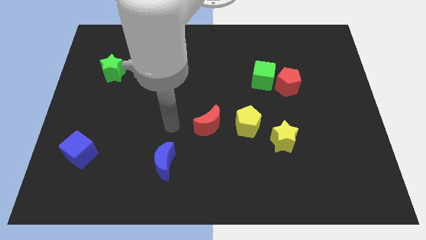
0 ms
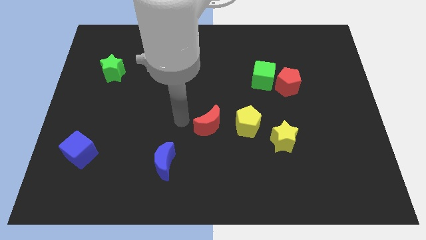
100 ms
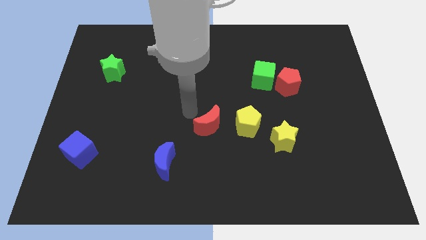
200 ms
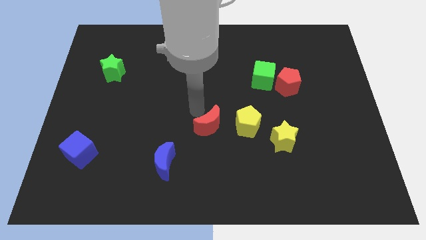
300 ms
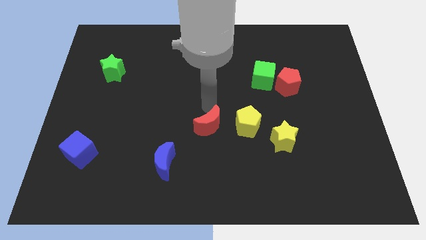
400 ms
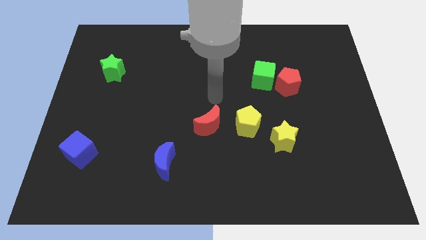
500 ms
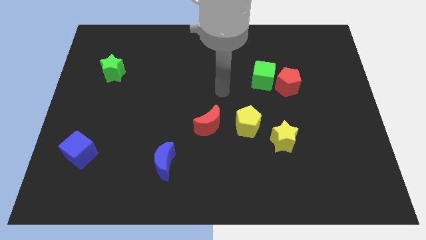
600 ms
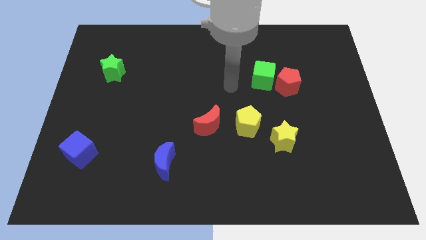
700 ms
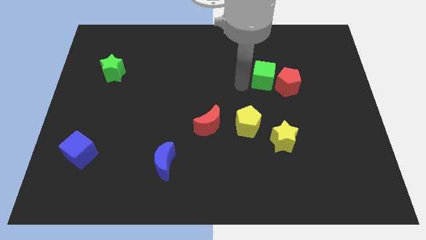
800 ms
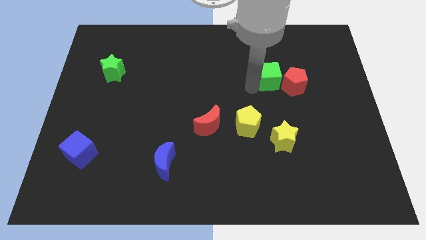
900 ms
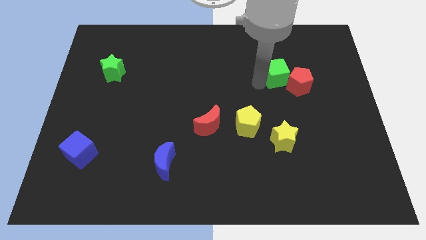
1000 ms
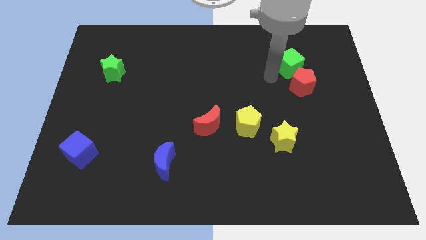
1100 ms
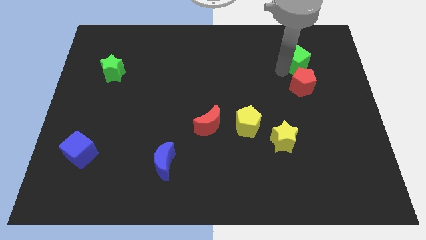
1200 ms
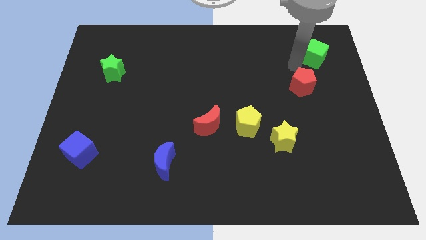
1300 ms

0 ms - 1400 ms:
separate the red pentagon from the green cube

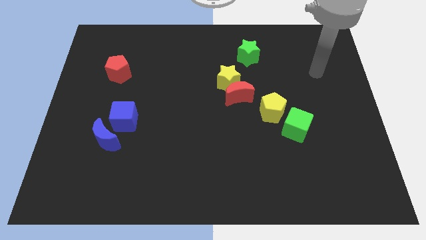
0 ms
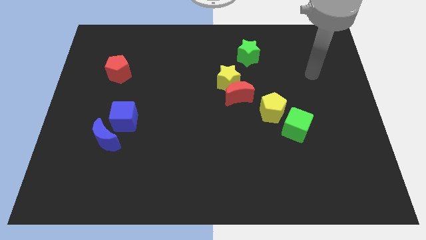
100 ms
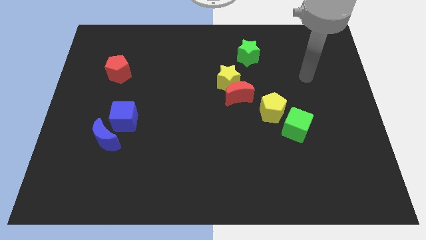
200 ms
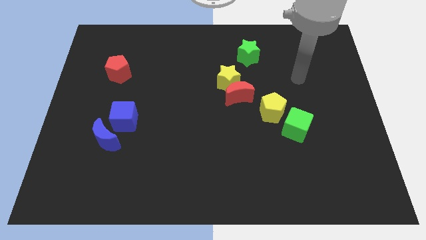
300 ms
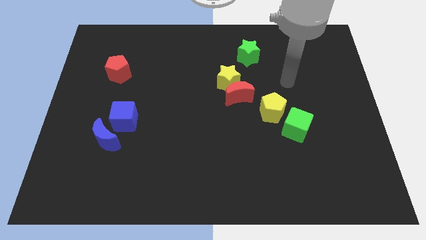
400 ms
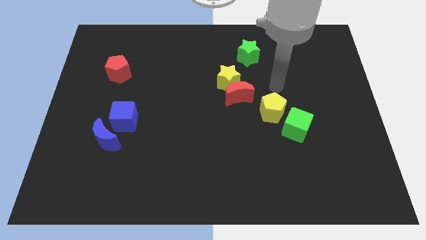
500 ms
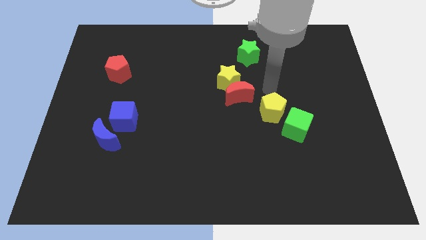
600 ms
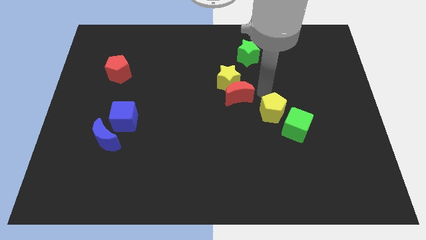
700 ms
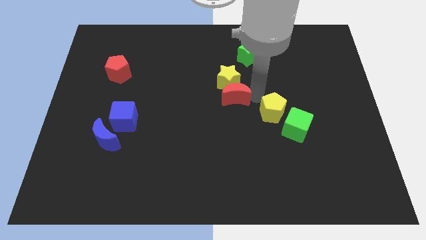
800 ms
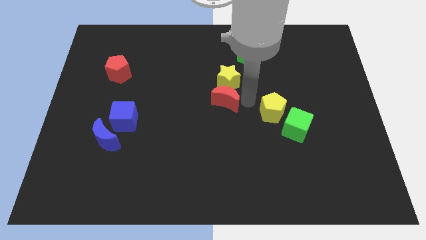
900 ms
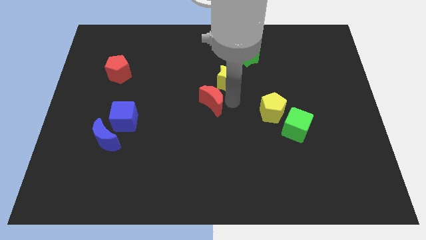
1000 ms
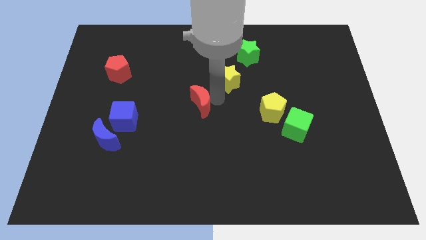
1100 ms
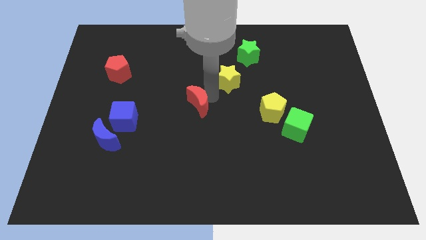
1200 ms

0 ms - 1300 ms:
move the yellow star away from the red moon

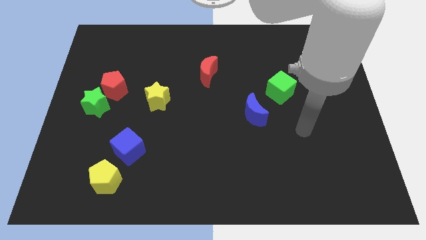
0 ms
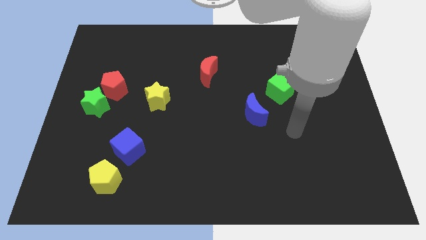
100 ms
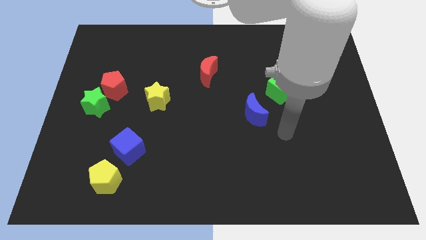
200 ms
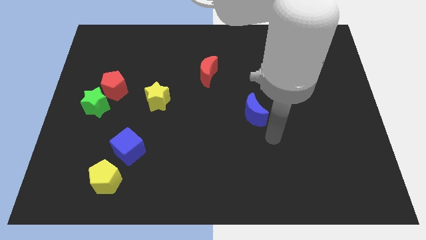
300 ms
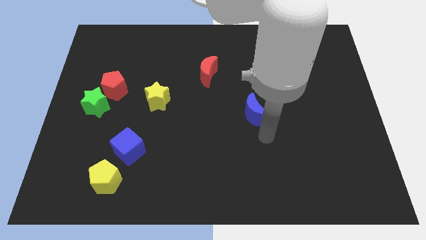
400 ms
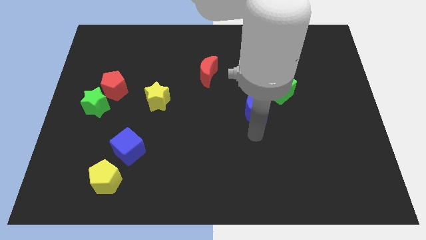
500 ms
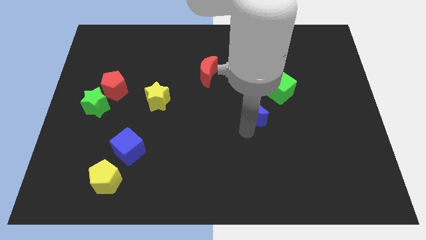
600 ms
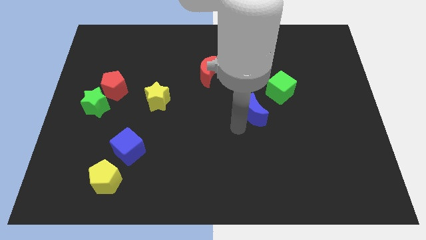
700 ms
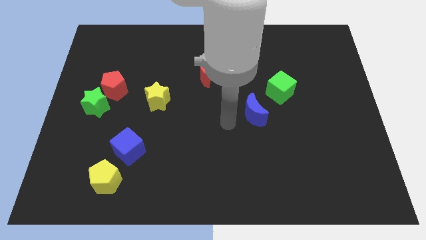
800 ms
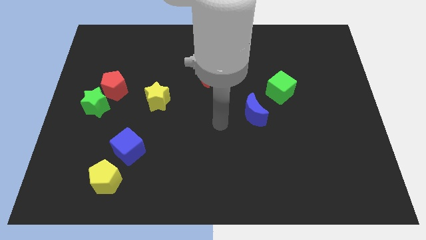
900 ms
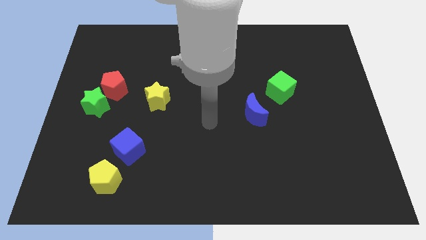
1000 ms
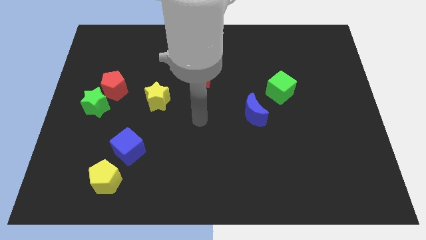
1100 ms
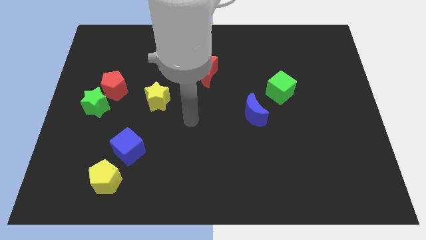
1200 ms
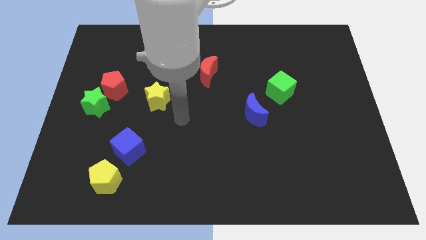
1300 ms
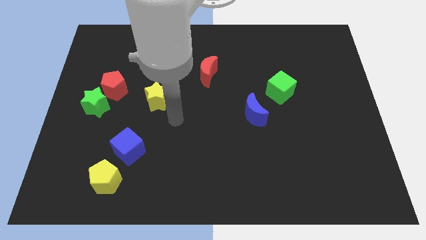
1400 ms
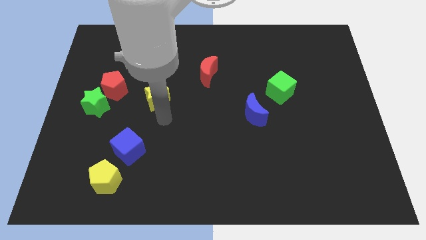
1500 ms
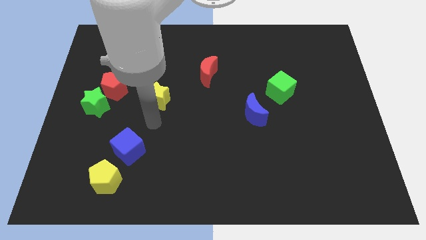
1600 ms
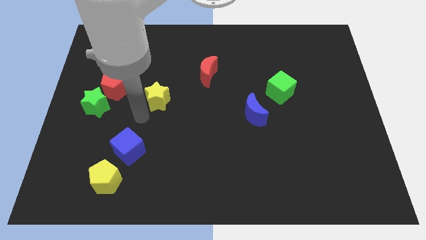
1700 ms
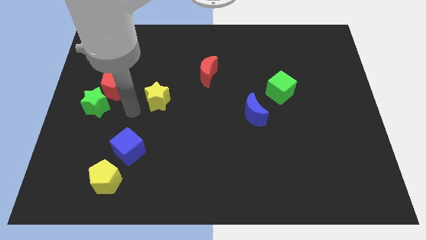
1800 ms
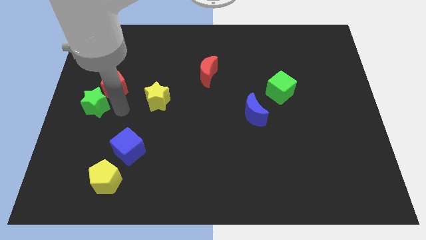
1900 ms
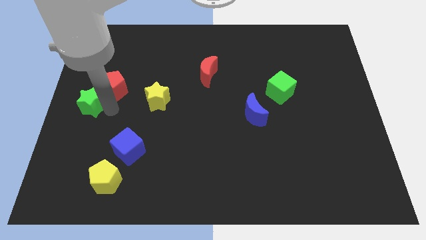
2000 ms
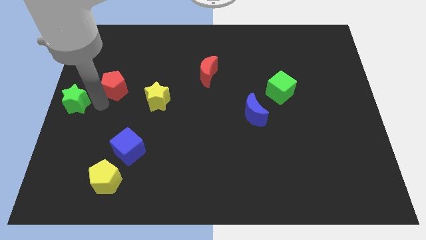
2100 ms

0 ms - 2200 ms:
separate the red pentagon from the green star

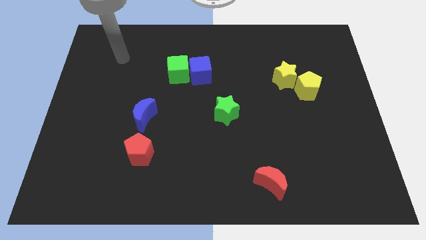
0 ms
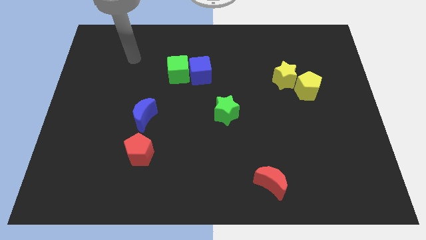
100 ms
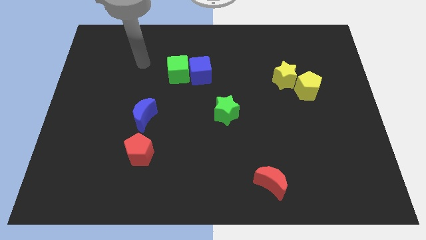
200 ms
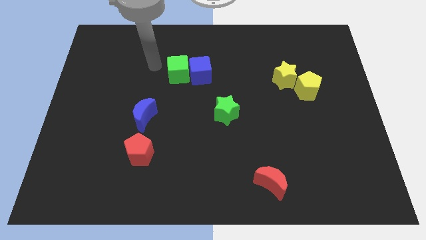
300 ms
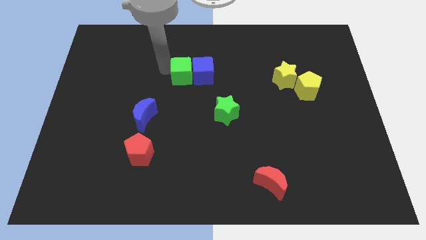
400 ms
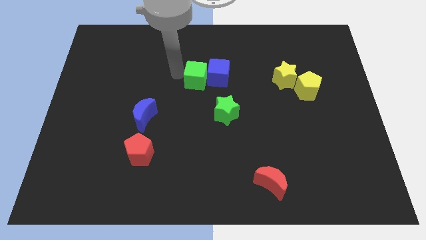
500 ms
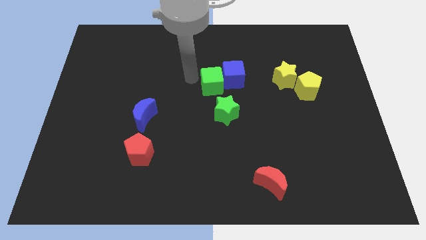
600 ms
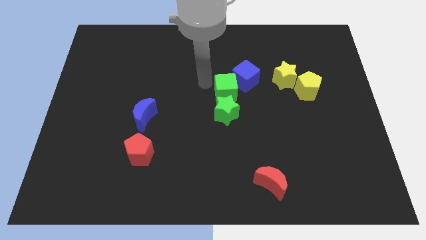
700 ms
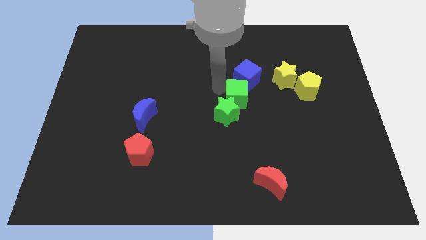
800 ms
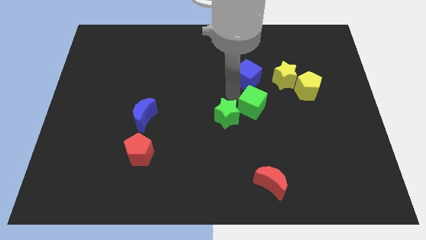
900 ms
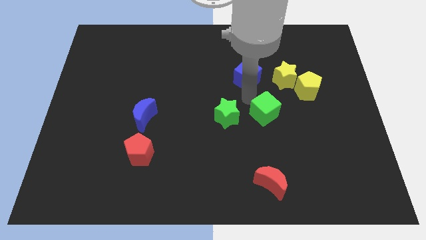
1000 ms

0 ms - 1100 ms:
pull the blue cube apart from the green cube

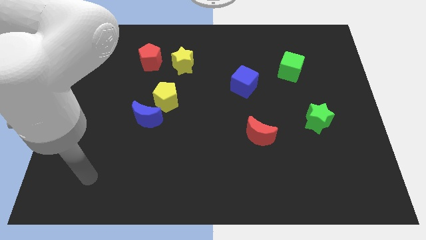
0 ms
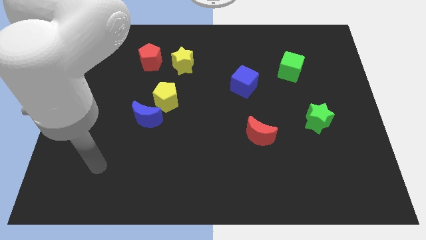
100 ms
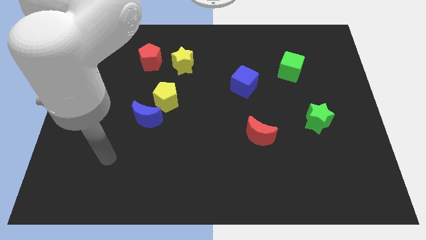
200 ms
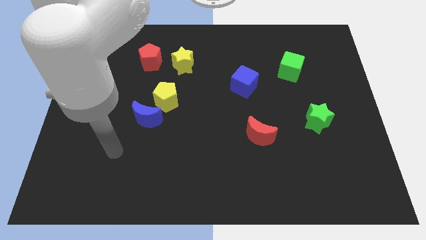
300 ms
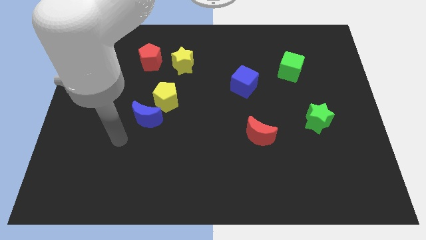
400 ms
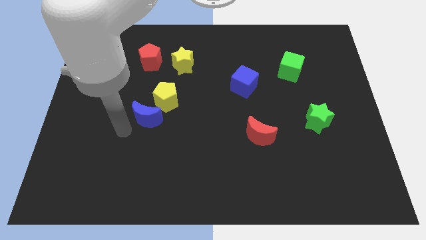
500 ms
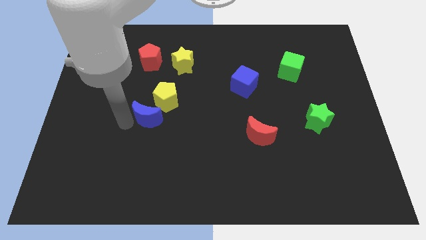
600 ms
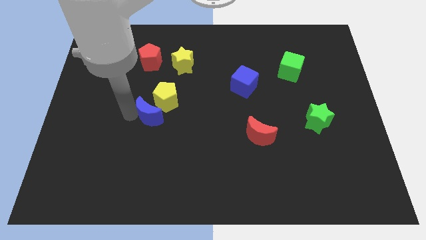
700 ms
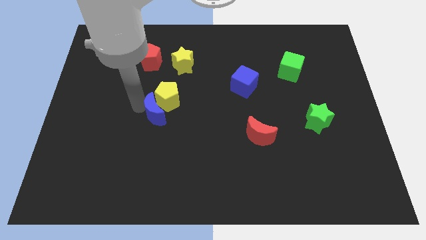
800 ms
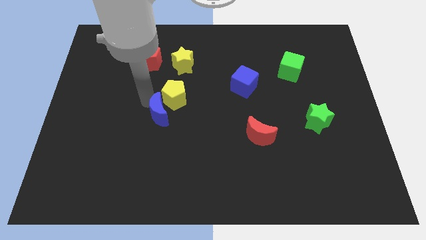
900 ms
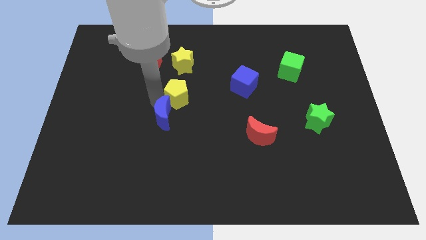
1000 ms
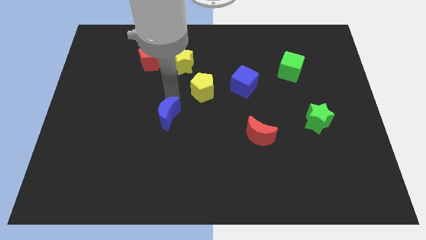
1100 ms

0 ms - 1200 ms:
move the blue moon away from the yellow pentagon

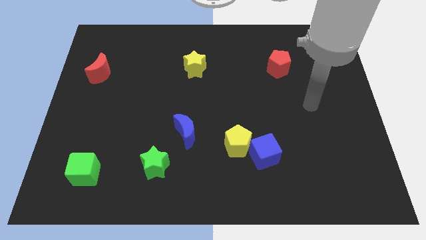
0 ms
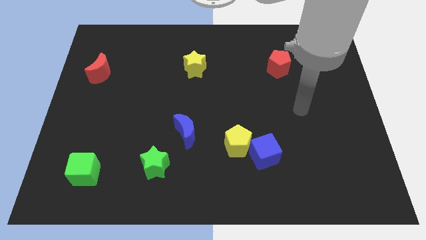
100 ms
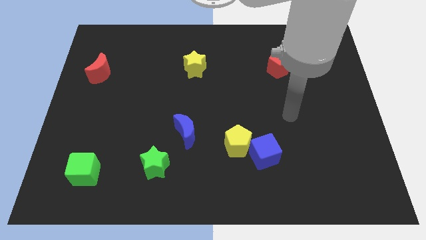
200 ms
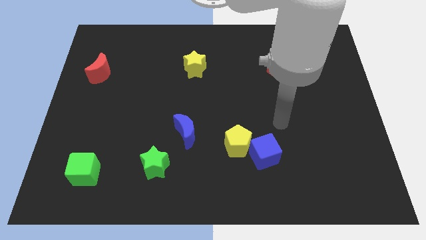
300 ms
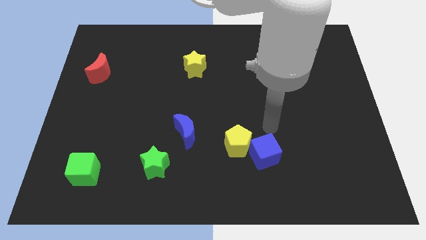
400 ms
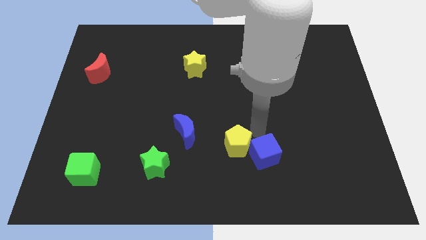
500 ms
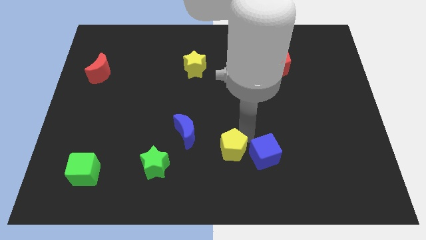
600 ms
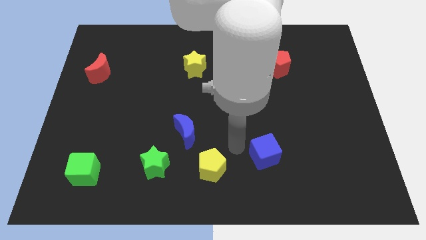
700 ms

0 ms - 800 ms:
move the blue cube away from the yellow pentagon

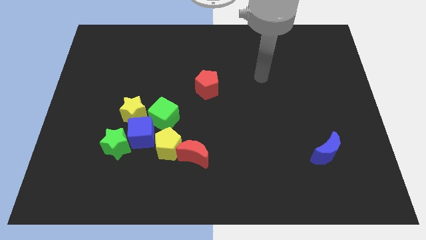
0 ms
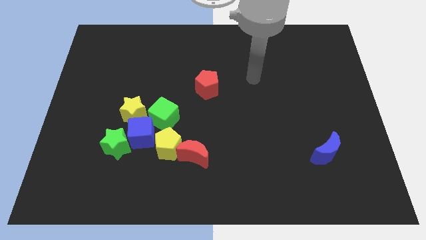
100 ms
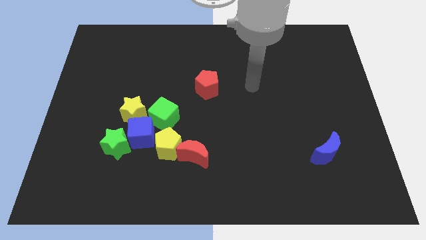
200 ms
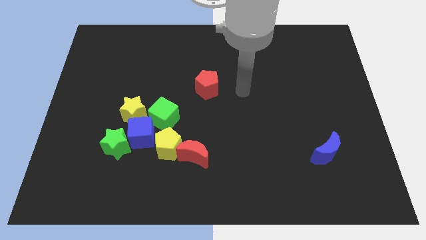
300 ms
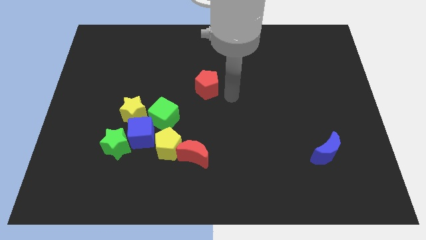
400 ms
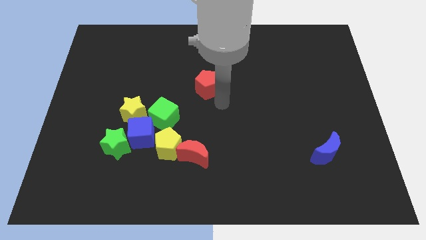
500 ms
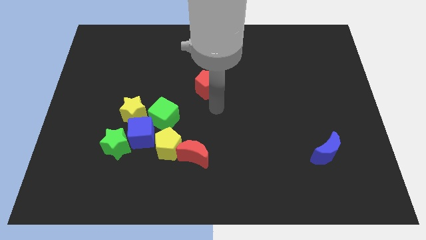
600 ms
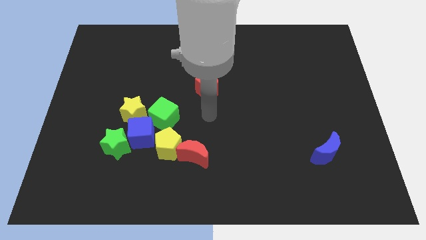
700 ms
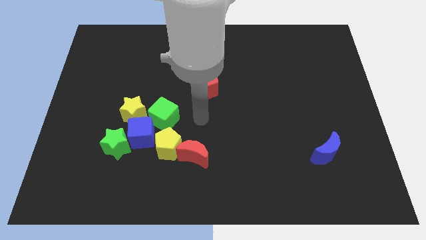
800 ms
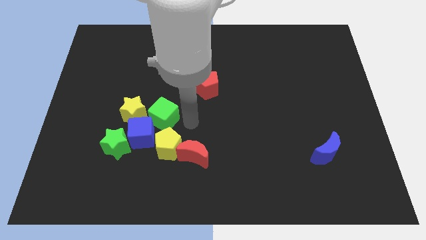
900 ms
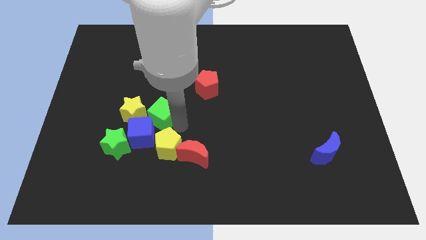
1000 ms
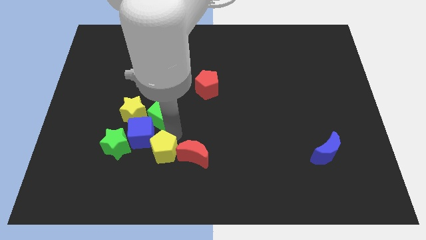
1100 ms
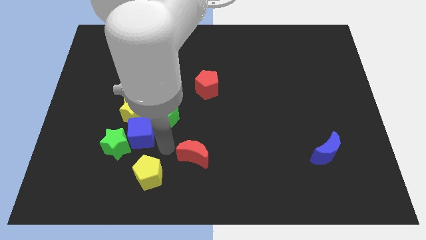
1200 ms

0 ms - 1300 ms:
separate the red moon from the yellow pentagon
